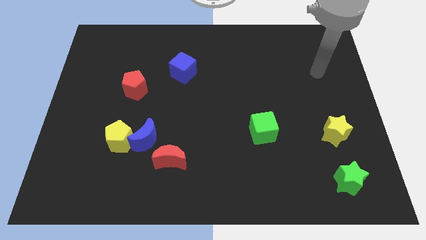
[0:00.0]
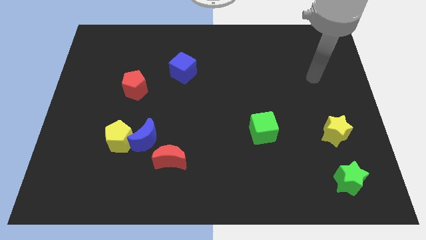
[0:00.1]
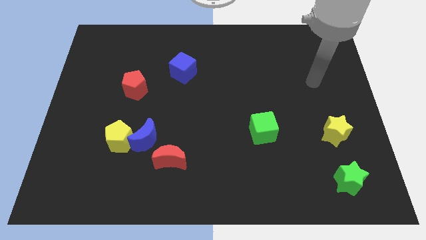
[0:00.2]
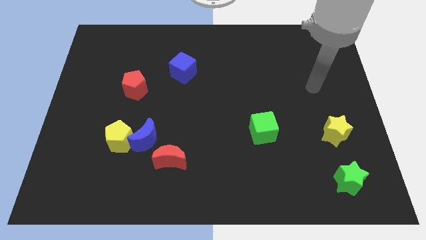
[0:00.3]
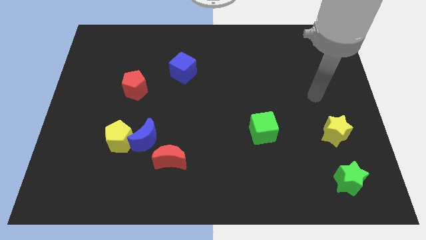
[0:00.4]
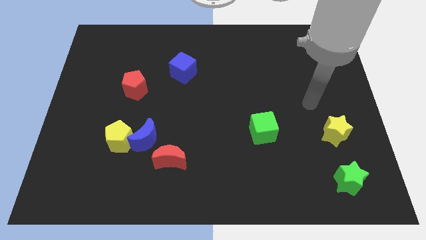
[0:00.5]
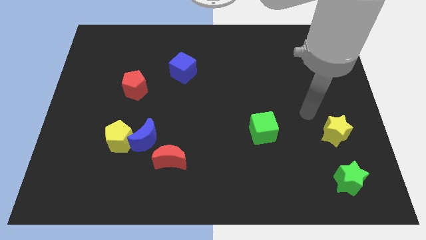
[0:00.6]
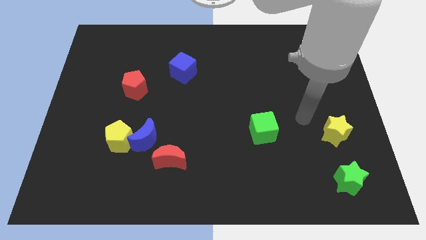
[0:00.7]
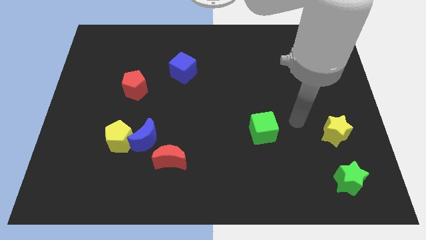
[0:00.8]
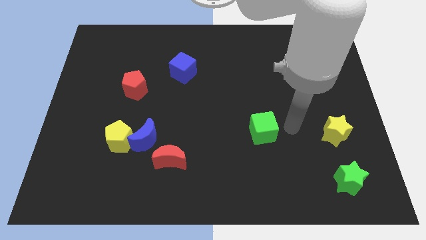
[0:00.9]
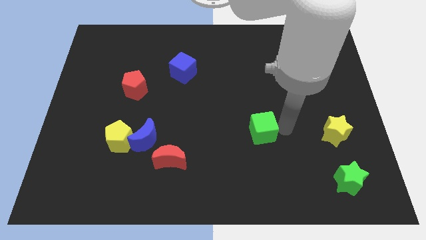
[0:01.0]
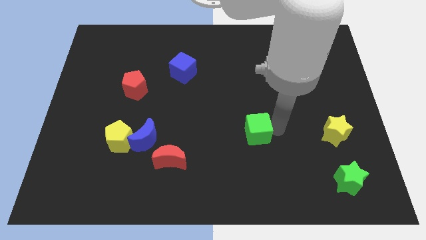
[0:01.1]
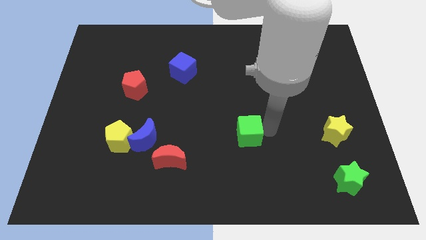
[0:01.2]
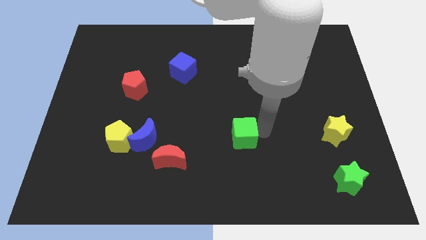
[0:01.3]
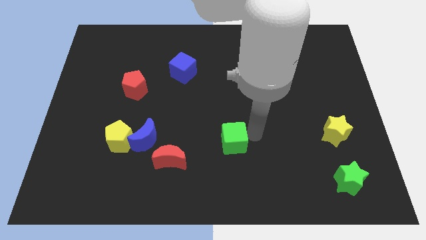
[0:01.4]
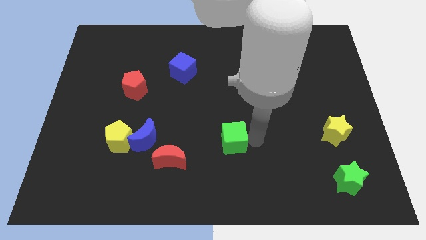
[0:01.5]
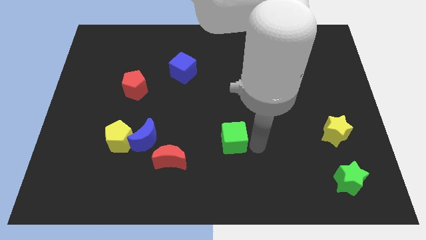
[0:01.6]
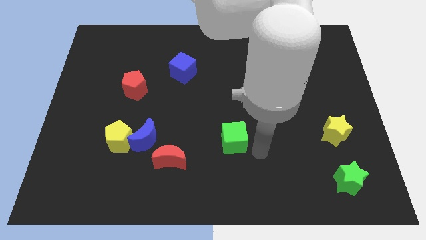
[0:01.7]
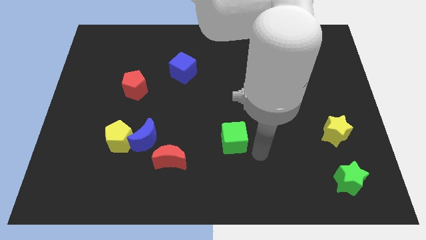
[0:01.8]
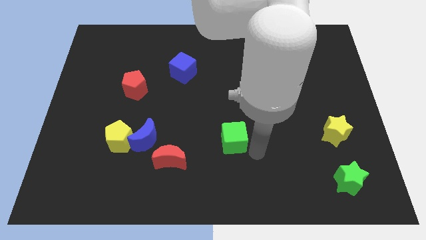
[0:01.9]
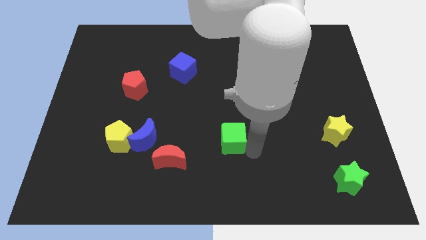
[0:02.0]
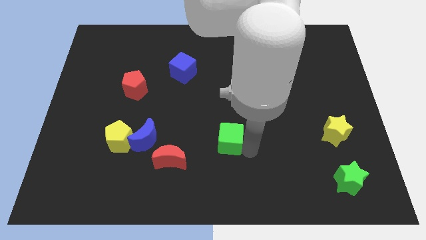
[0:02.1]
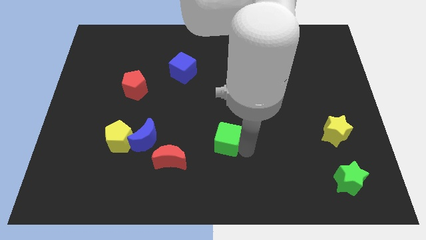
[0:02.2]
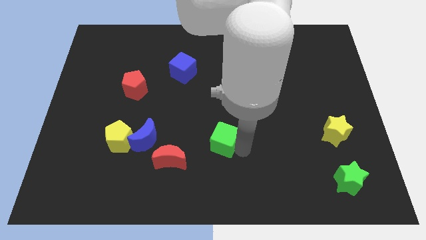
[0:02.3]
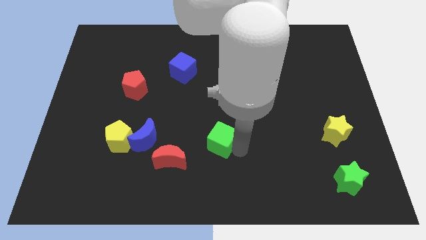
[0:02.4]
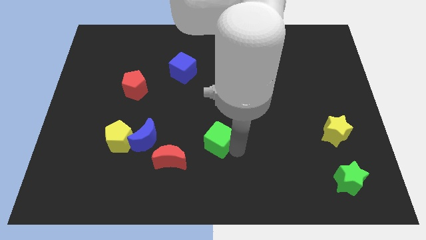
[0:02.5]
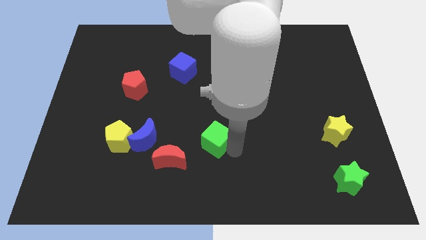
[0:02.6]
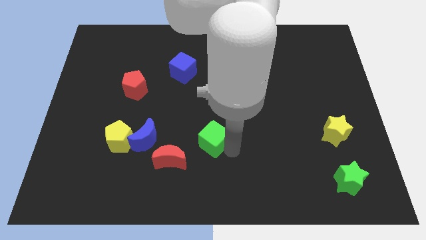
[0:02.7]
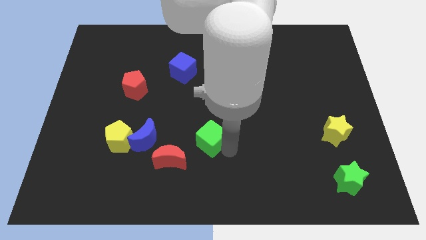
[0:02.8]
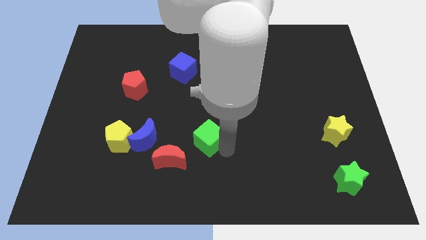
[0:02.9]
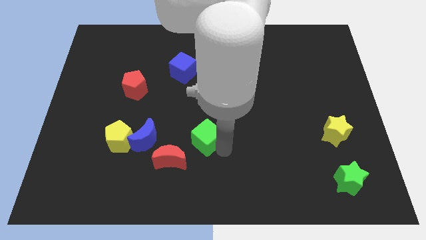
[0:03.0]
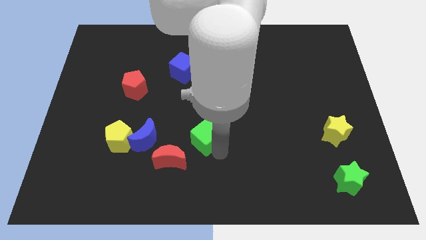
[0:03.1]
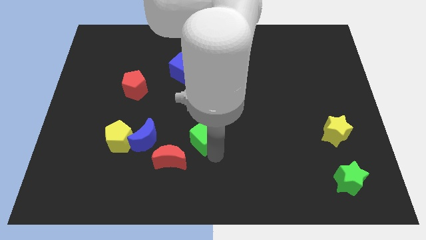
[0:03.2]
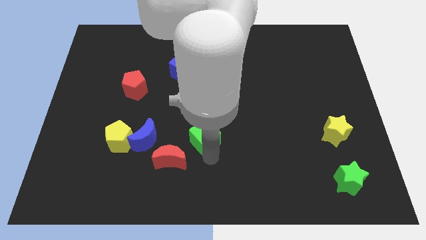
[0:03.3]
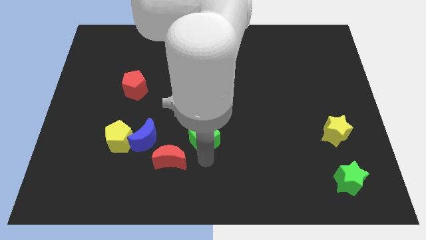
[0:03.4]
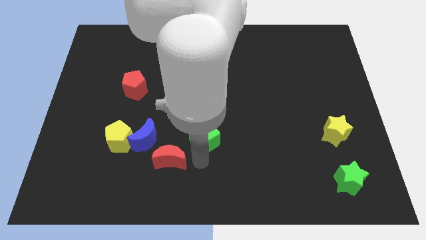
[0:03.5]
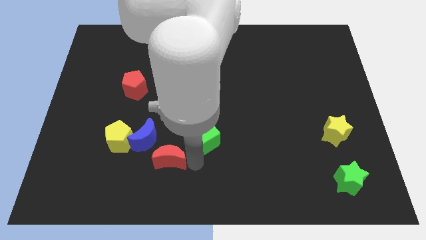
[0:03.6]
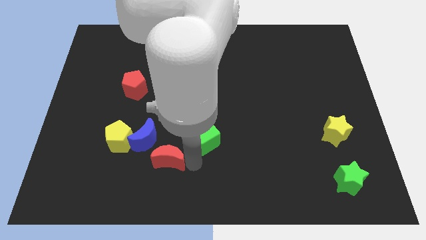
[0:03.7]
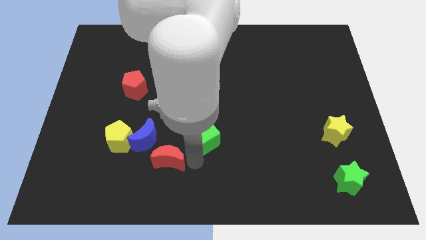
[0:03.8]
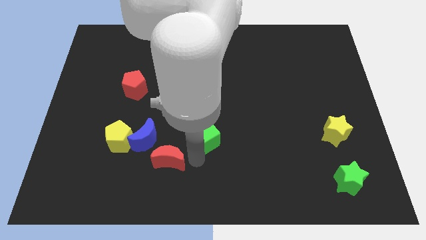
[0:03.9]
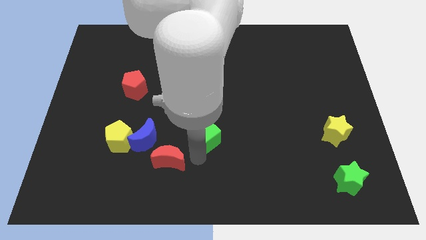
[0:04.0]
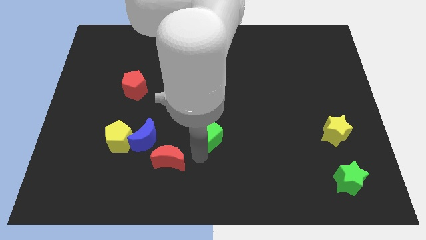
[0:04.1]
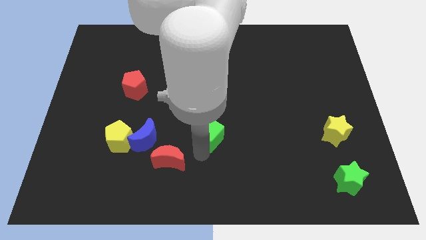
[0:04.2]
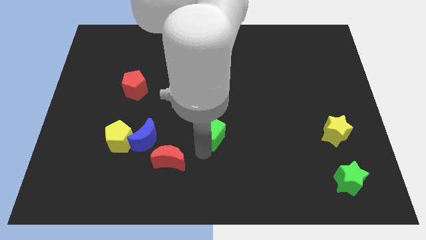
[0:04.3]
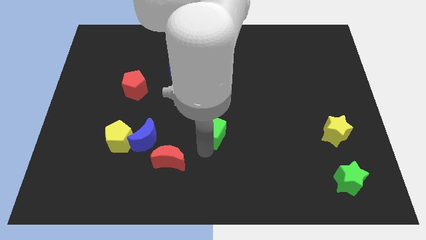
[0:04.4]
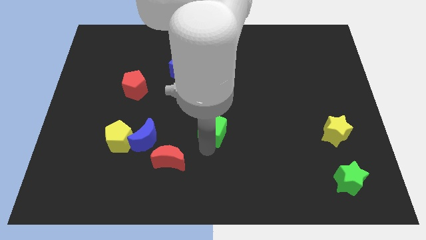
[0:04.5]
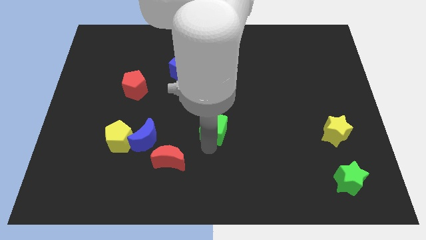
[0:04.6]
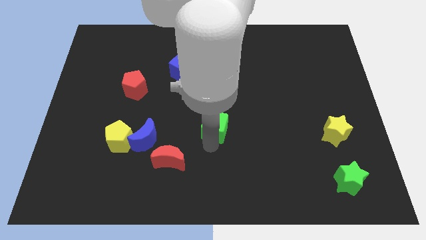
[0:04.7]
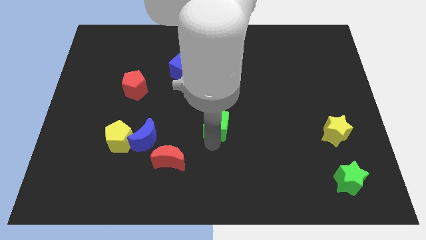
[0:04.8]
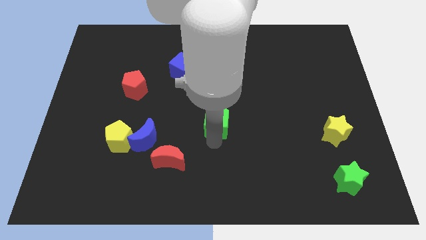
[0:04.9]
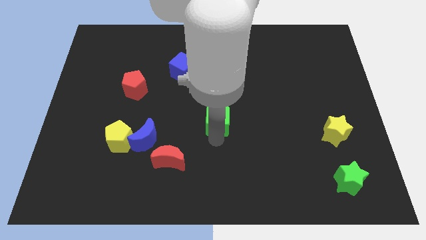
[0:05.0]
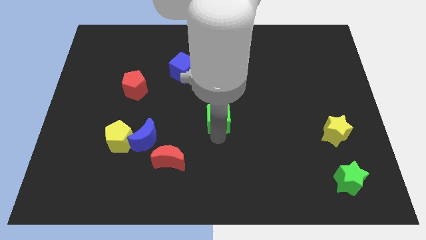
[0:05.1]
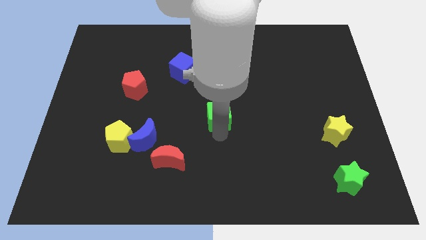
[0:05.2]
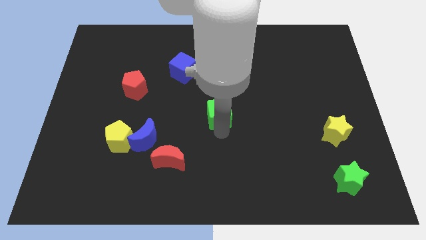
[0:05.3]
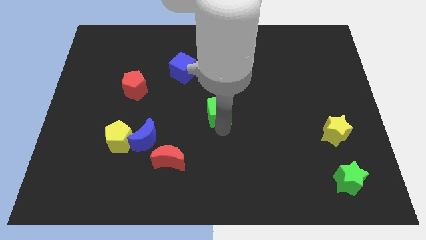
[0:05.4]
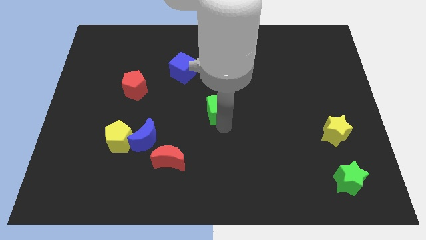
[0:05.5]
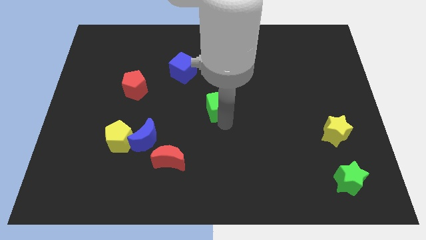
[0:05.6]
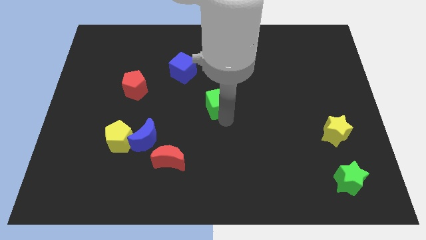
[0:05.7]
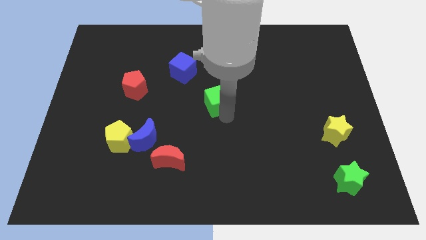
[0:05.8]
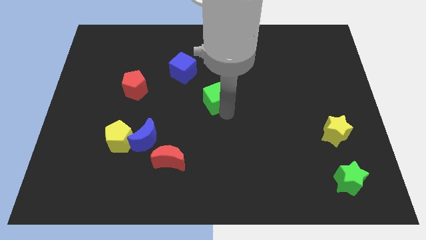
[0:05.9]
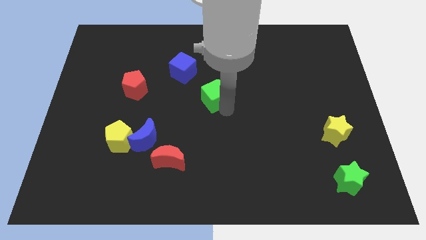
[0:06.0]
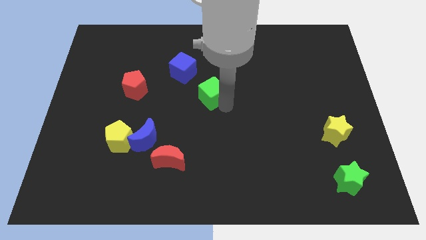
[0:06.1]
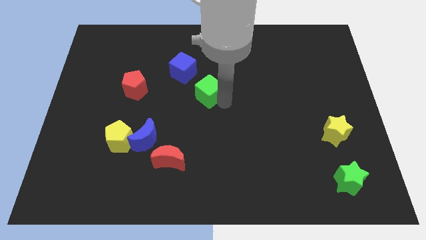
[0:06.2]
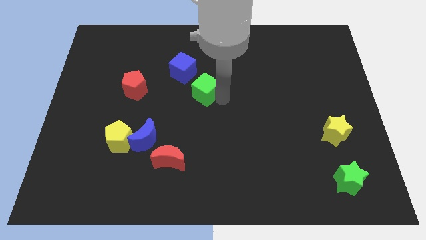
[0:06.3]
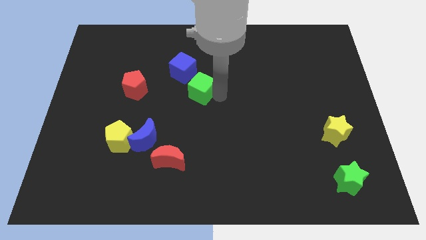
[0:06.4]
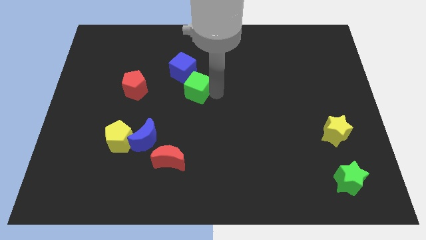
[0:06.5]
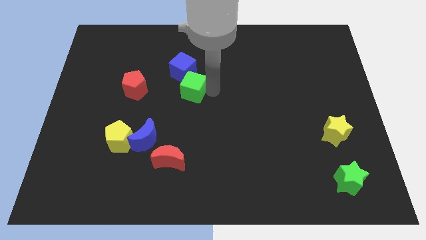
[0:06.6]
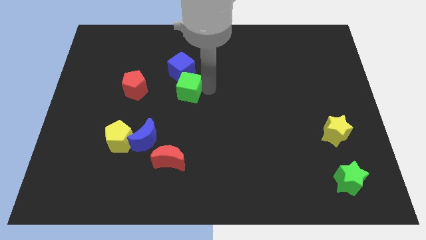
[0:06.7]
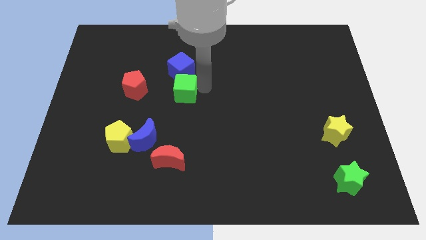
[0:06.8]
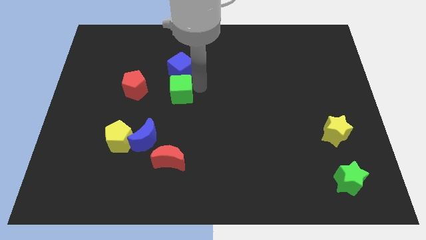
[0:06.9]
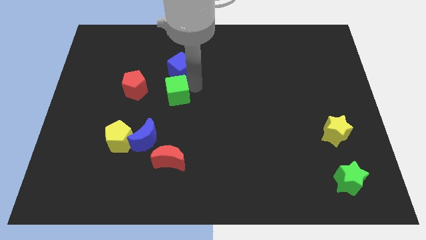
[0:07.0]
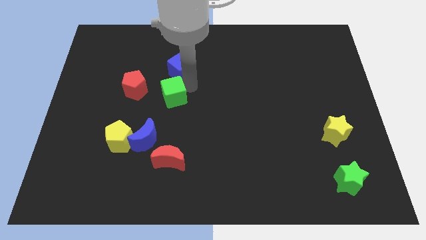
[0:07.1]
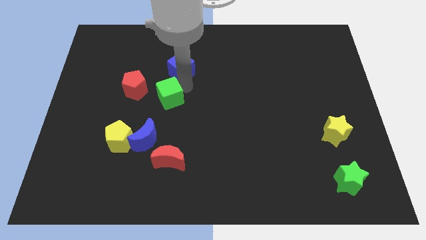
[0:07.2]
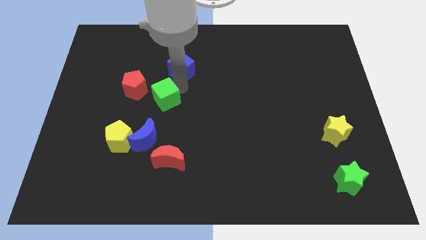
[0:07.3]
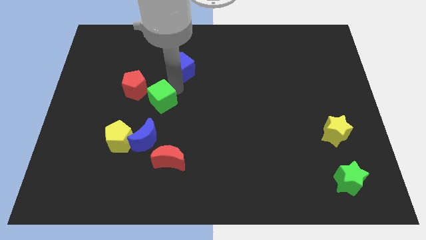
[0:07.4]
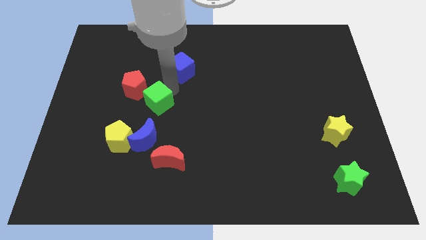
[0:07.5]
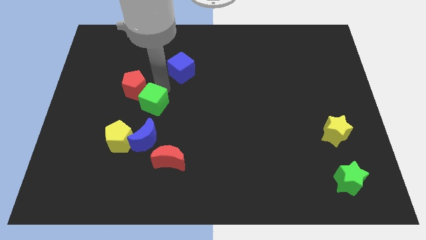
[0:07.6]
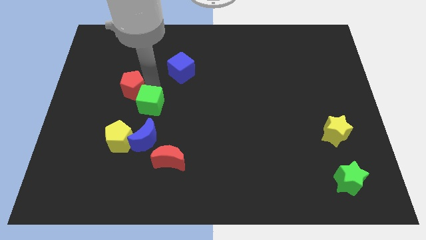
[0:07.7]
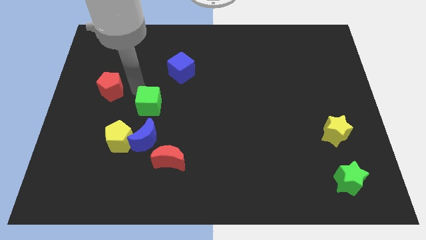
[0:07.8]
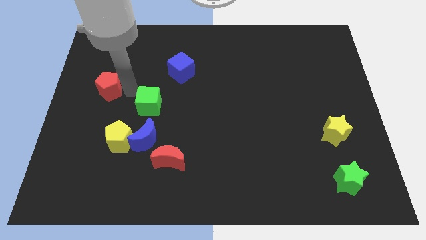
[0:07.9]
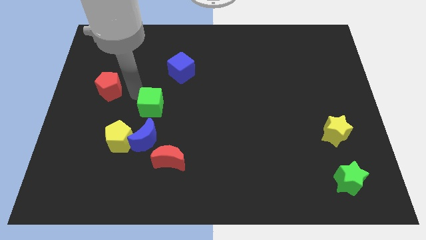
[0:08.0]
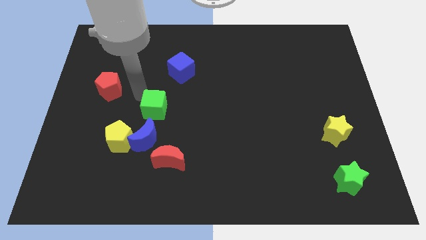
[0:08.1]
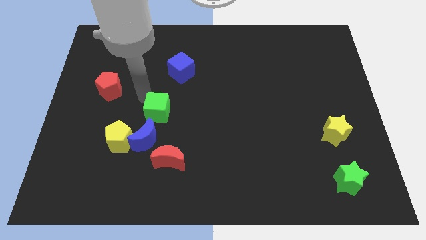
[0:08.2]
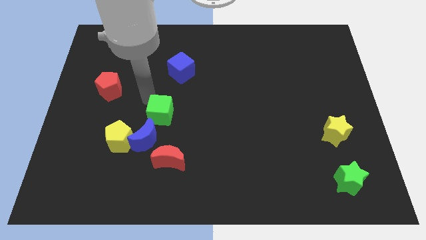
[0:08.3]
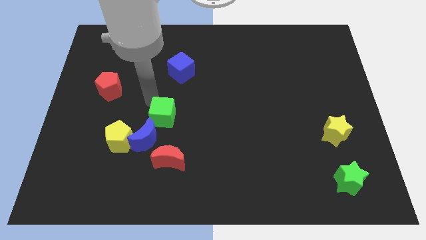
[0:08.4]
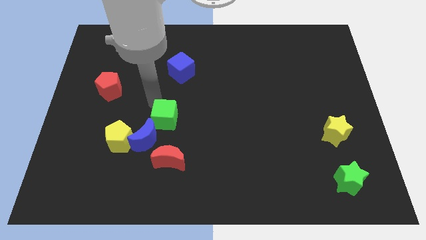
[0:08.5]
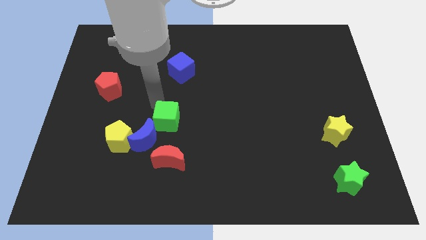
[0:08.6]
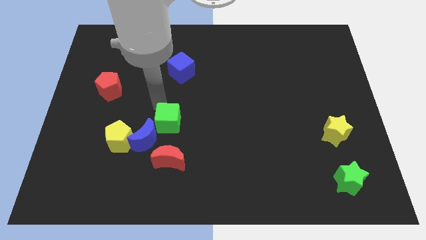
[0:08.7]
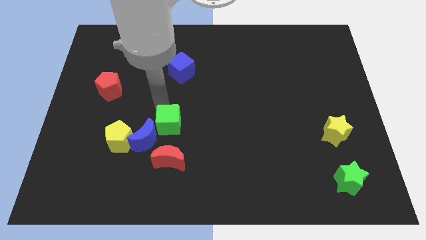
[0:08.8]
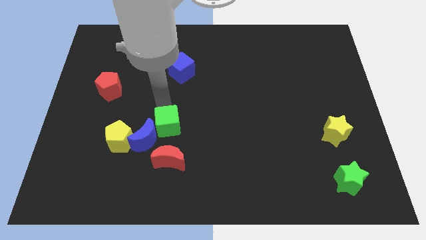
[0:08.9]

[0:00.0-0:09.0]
slide the green cube towards the blue moon
